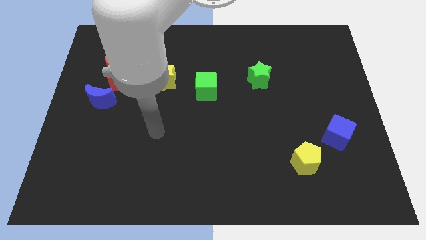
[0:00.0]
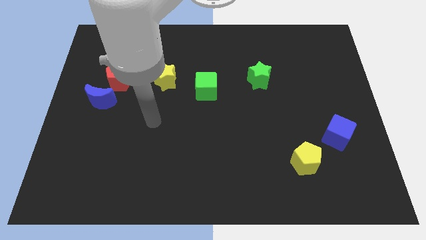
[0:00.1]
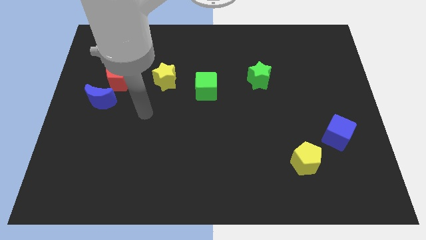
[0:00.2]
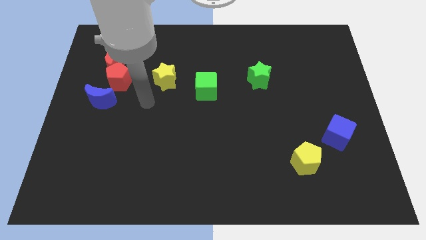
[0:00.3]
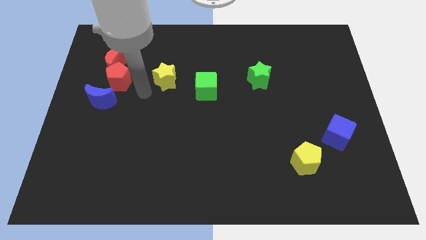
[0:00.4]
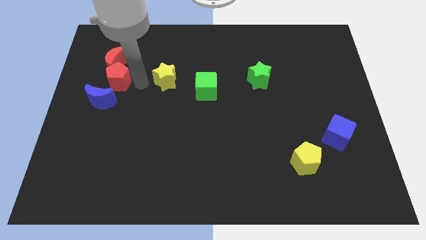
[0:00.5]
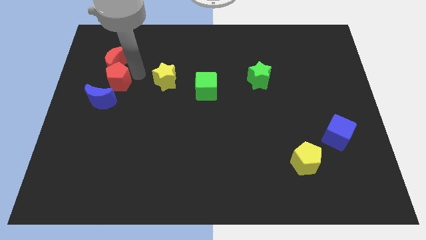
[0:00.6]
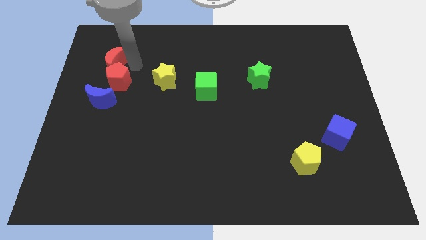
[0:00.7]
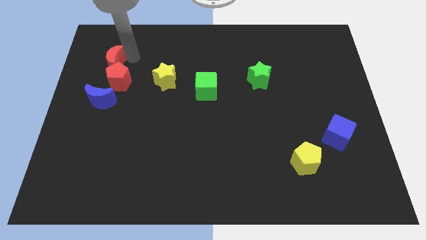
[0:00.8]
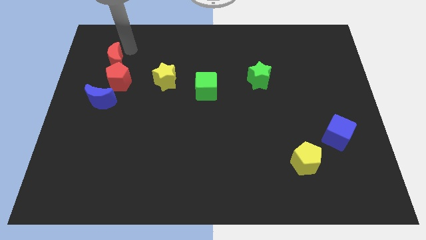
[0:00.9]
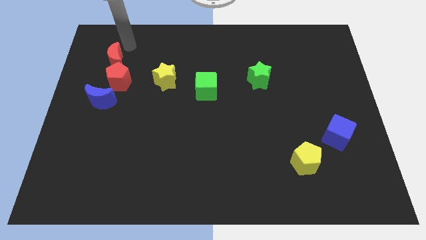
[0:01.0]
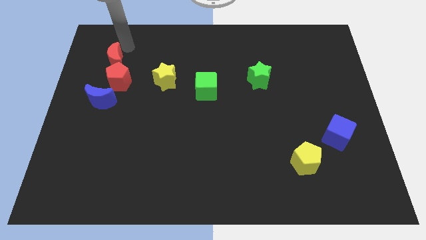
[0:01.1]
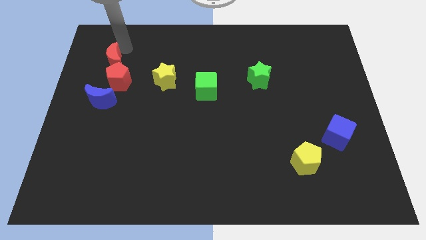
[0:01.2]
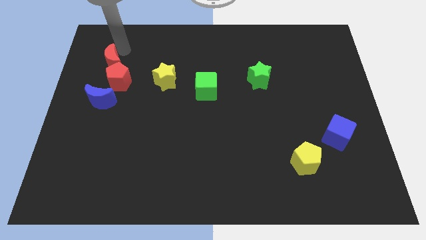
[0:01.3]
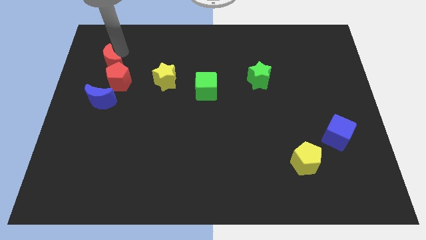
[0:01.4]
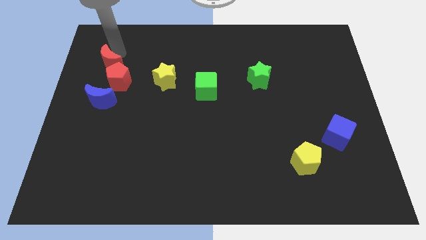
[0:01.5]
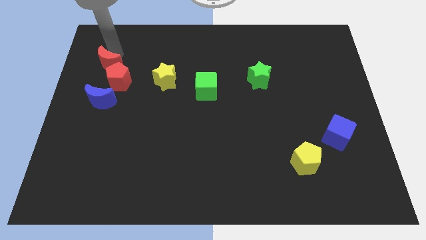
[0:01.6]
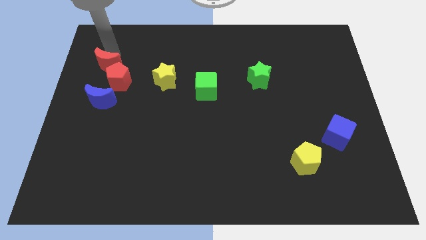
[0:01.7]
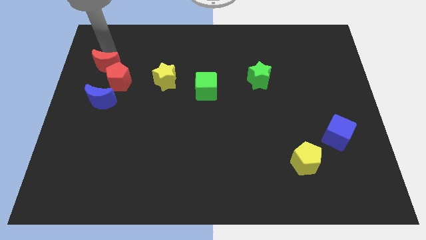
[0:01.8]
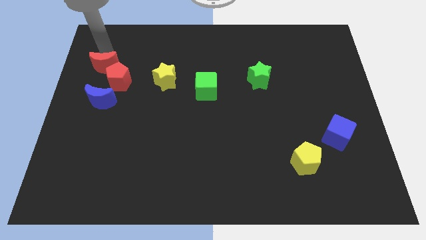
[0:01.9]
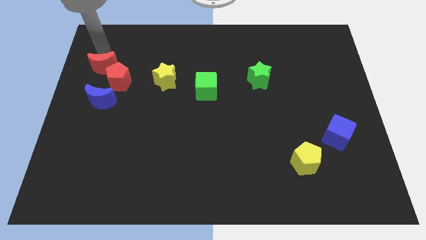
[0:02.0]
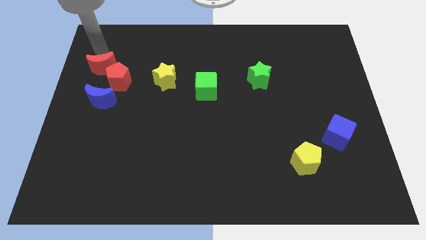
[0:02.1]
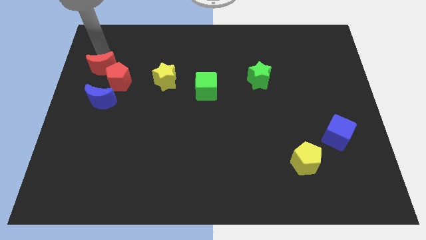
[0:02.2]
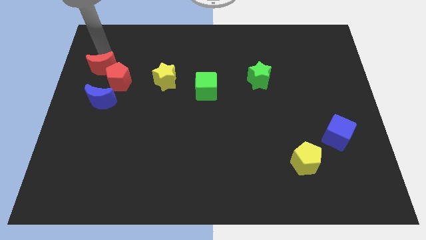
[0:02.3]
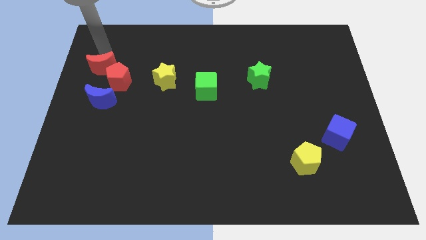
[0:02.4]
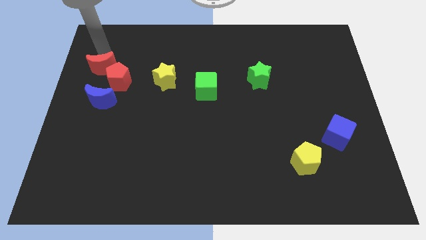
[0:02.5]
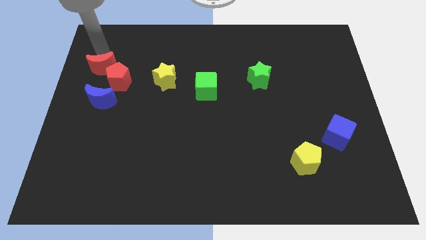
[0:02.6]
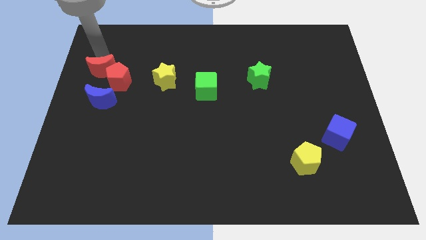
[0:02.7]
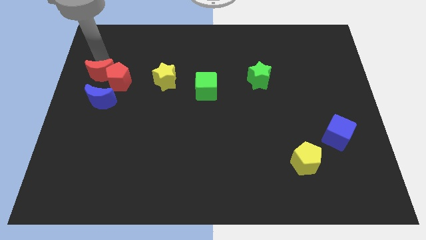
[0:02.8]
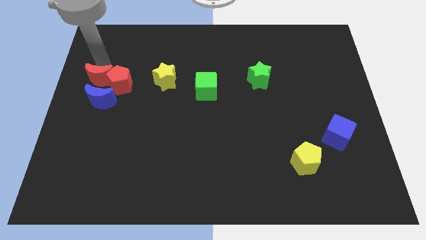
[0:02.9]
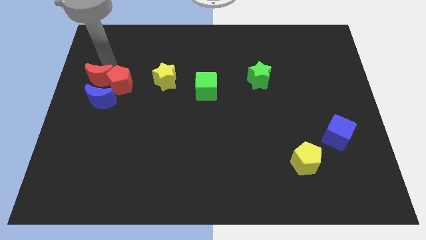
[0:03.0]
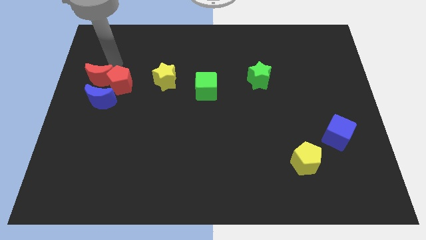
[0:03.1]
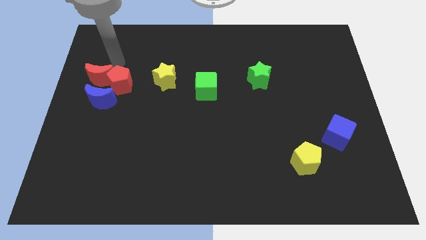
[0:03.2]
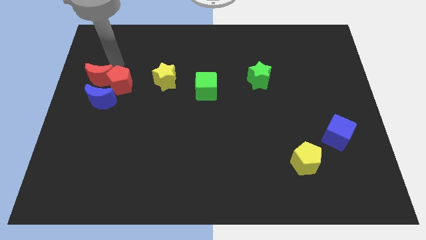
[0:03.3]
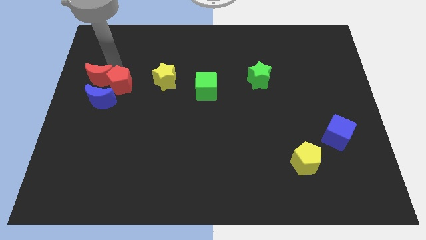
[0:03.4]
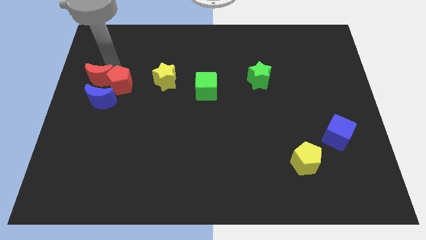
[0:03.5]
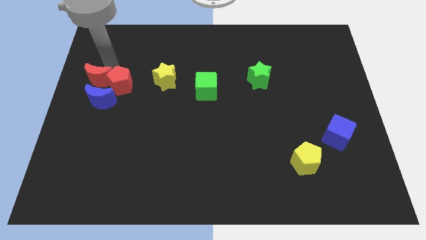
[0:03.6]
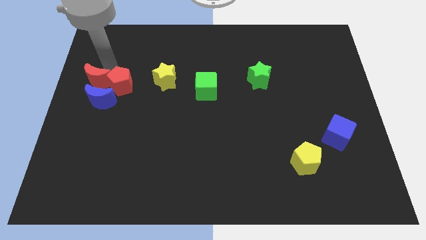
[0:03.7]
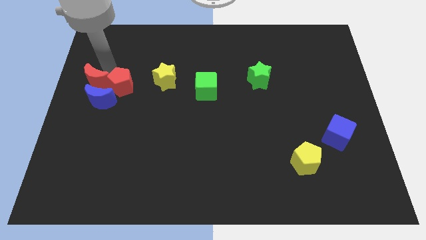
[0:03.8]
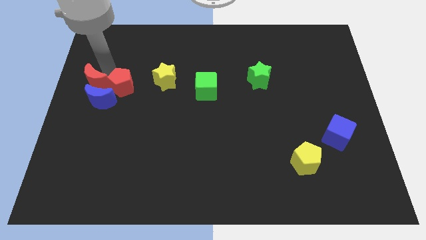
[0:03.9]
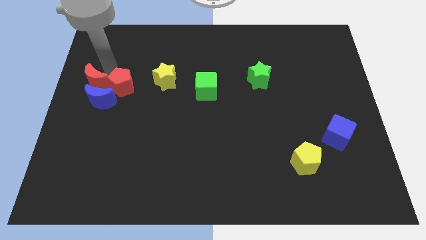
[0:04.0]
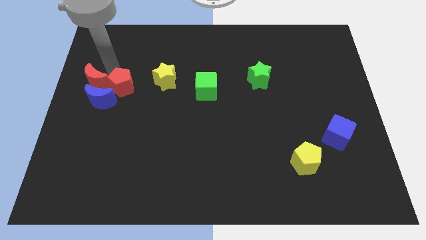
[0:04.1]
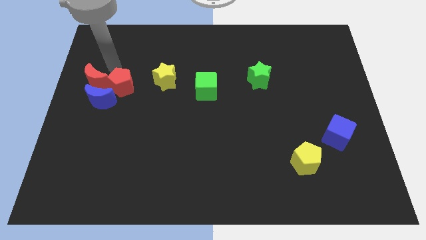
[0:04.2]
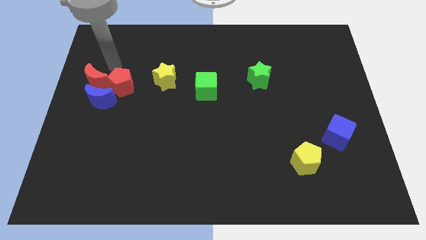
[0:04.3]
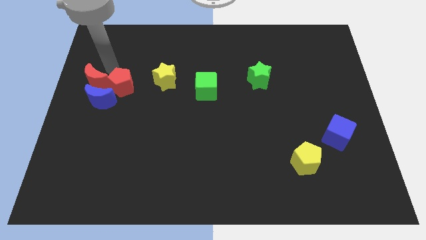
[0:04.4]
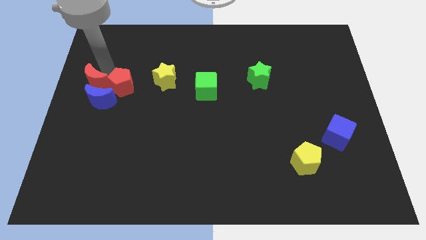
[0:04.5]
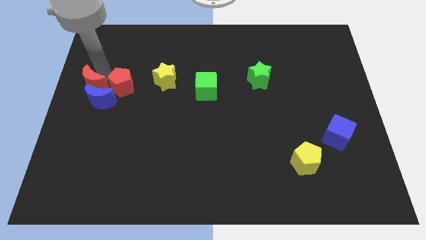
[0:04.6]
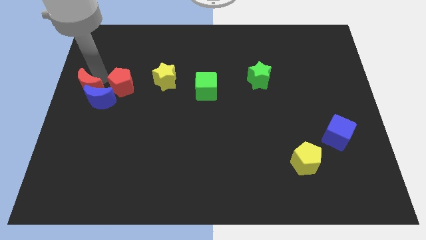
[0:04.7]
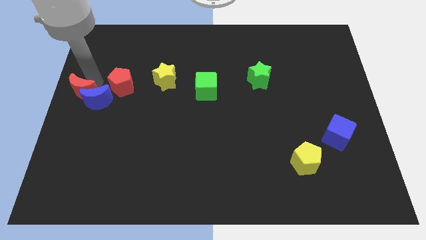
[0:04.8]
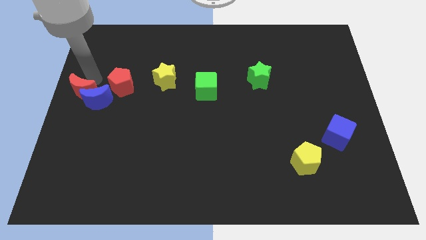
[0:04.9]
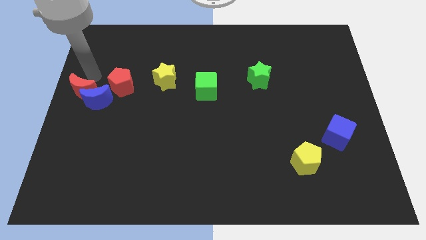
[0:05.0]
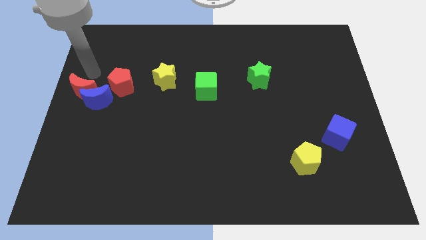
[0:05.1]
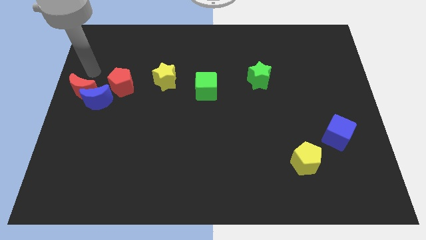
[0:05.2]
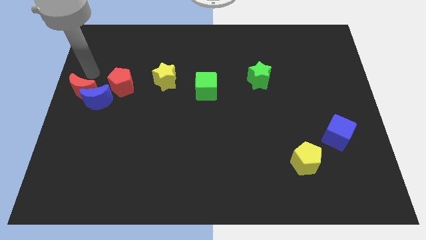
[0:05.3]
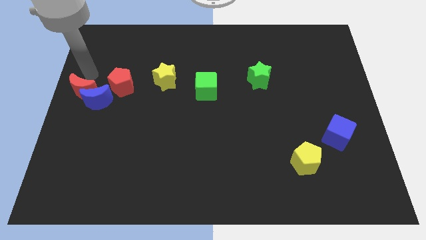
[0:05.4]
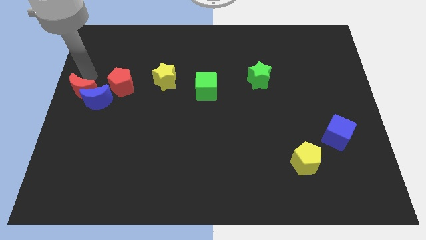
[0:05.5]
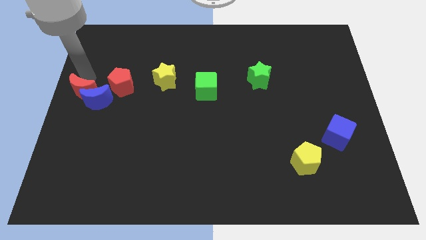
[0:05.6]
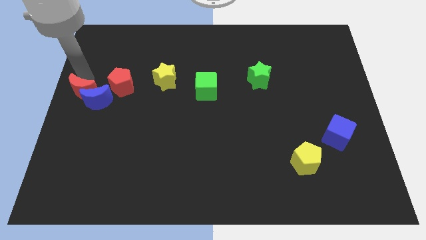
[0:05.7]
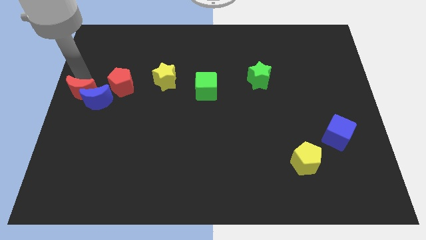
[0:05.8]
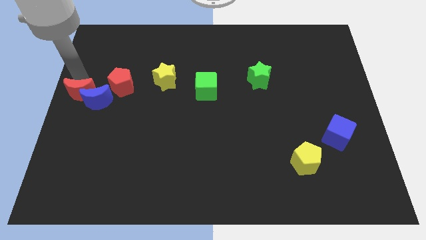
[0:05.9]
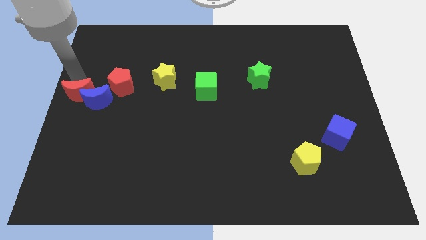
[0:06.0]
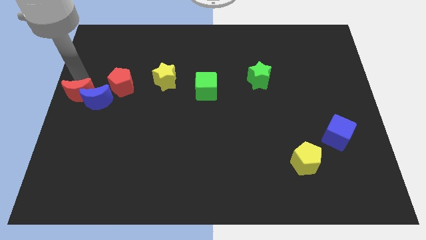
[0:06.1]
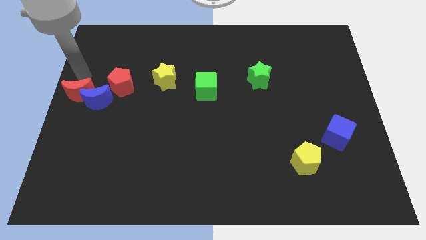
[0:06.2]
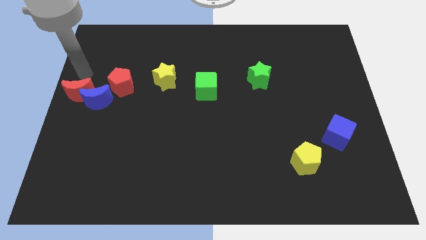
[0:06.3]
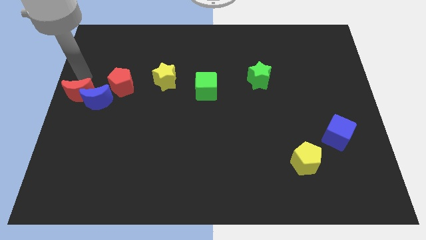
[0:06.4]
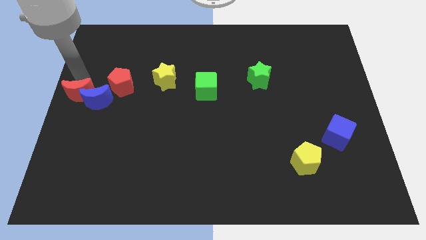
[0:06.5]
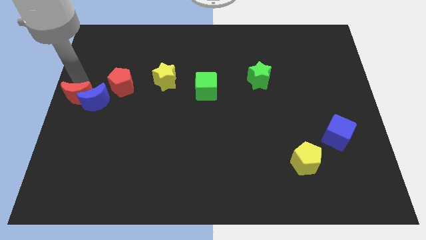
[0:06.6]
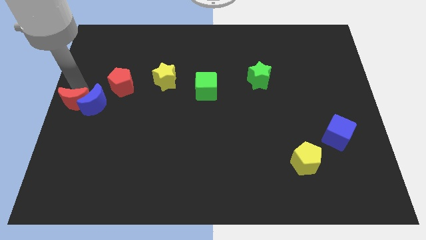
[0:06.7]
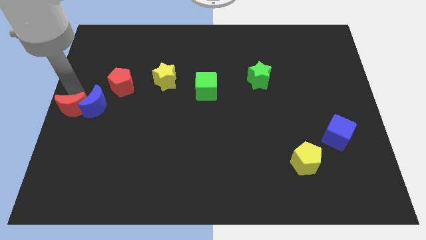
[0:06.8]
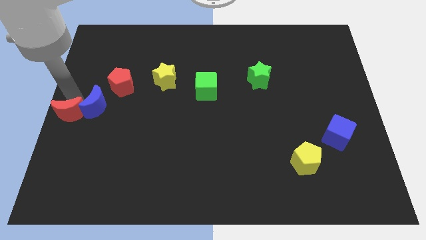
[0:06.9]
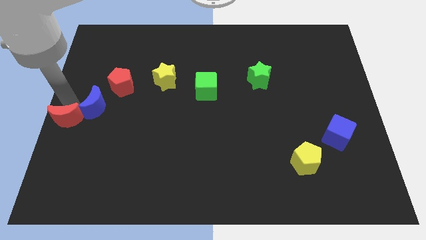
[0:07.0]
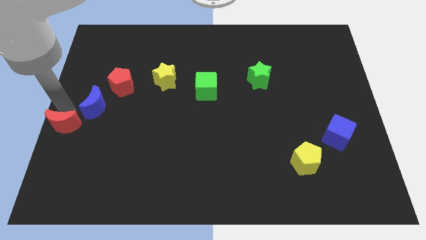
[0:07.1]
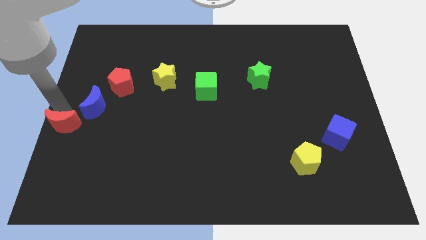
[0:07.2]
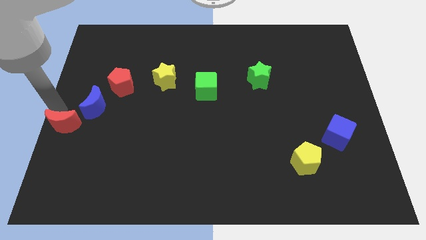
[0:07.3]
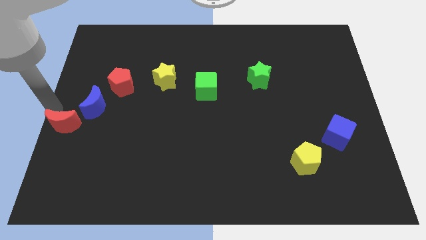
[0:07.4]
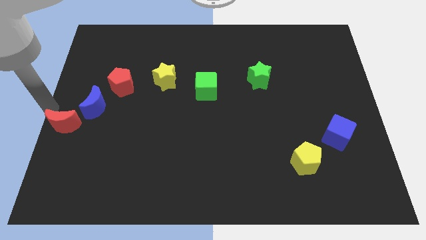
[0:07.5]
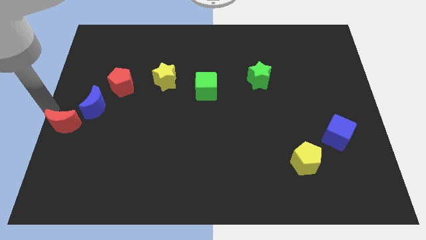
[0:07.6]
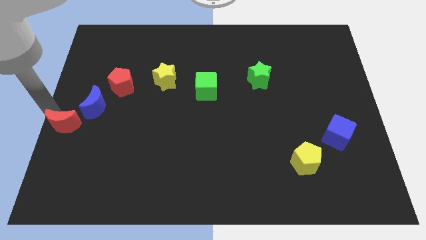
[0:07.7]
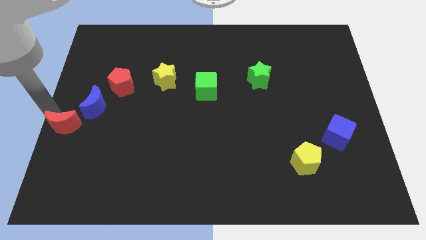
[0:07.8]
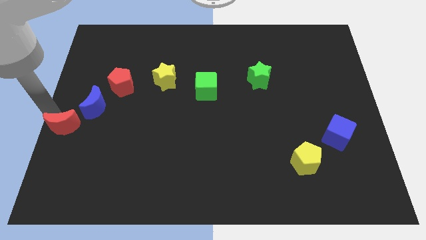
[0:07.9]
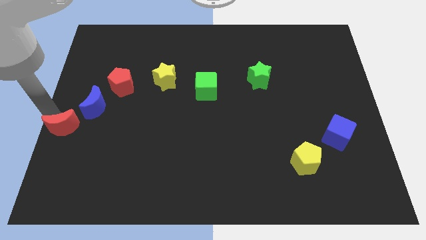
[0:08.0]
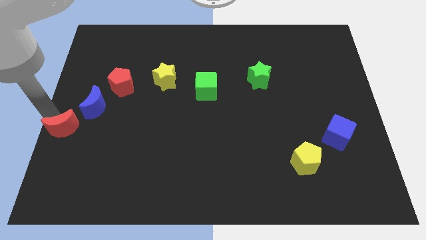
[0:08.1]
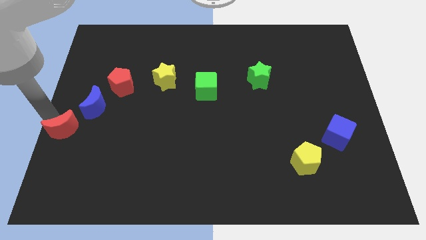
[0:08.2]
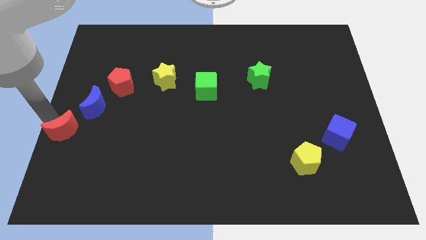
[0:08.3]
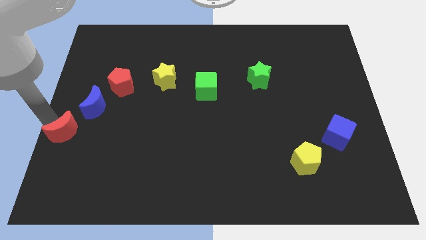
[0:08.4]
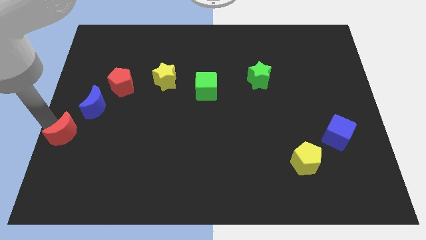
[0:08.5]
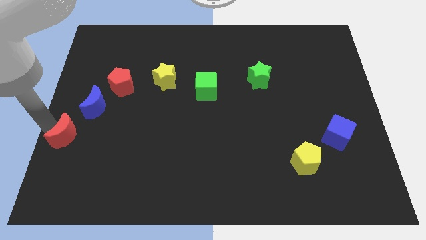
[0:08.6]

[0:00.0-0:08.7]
push the red moon downwards
